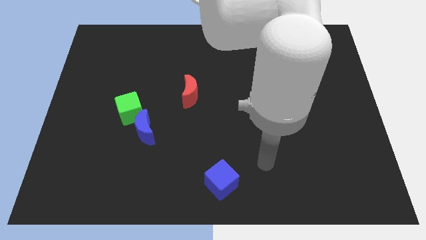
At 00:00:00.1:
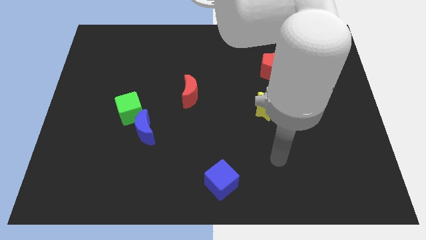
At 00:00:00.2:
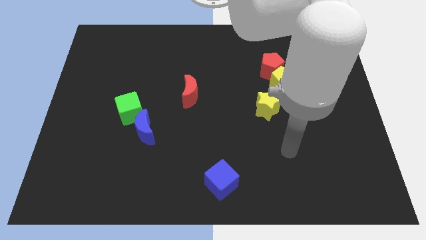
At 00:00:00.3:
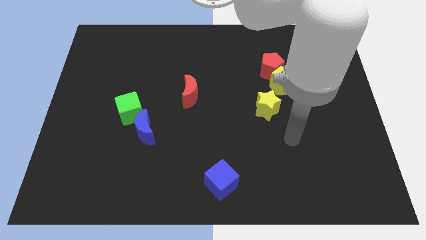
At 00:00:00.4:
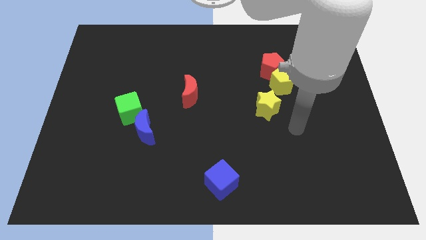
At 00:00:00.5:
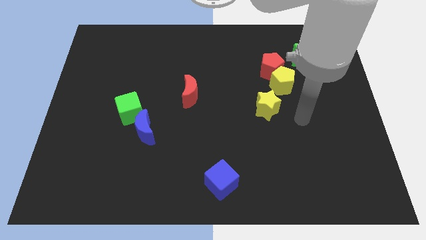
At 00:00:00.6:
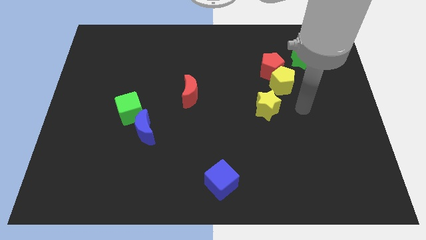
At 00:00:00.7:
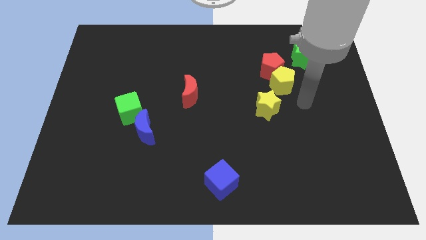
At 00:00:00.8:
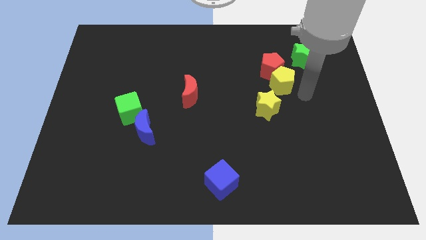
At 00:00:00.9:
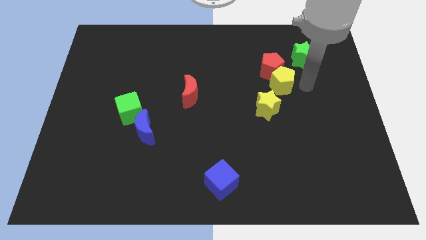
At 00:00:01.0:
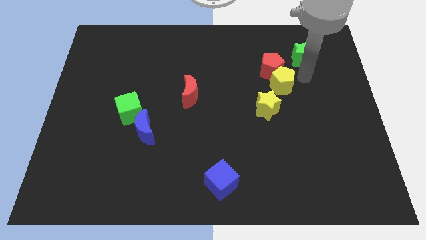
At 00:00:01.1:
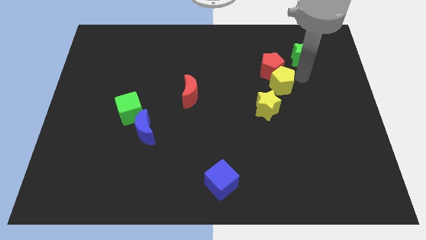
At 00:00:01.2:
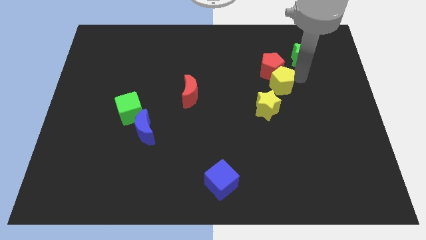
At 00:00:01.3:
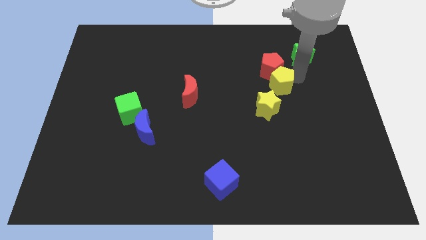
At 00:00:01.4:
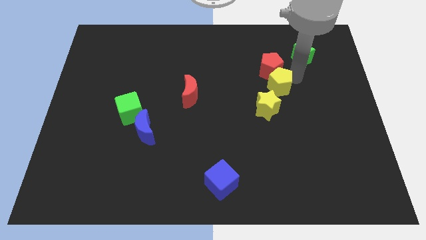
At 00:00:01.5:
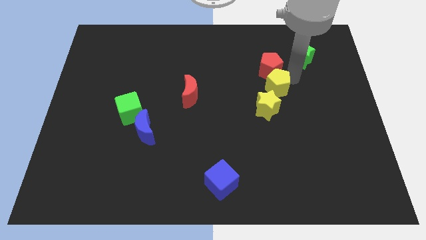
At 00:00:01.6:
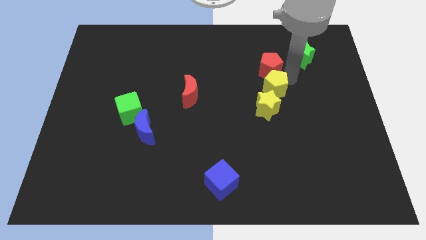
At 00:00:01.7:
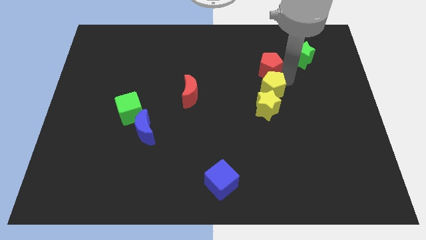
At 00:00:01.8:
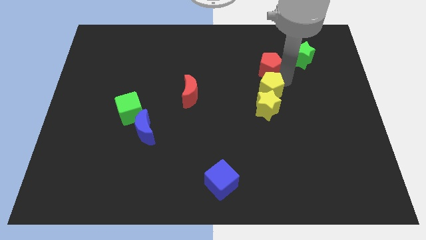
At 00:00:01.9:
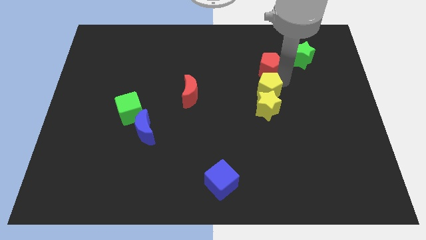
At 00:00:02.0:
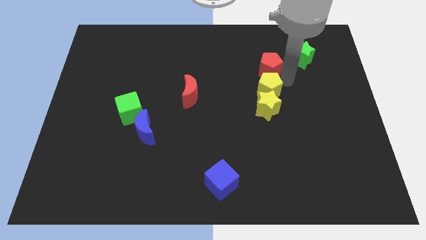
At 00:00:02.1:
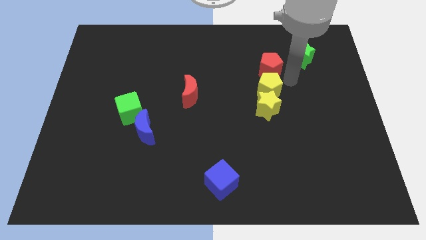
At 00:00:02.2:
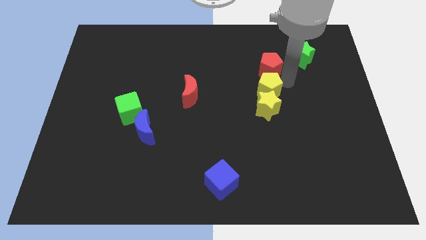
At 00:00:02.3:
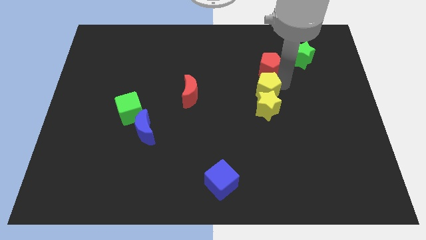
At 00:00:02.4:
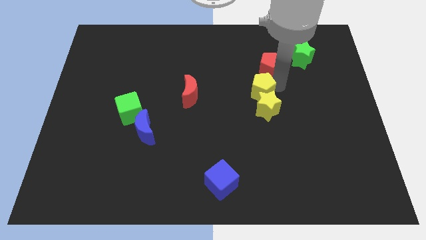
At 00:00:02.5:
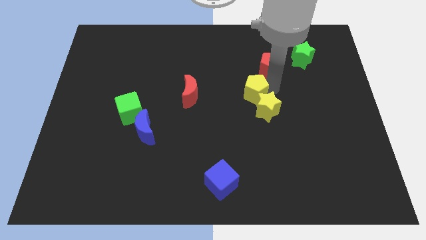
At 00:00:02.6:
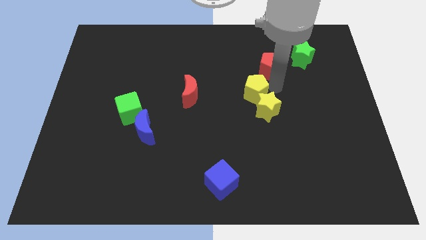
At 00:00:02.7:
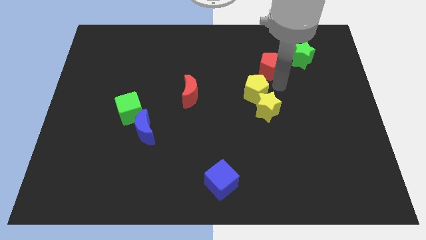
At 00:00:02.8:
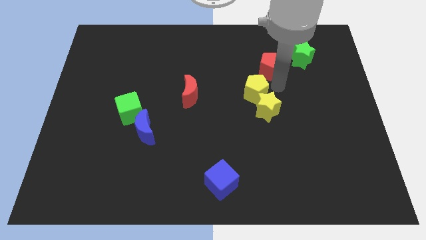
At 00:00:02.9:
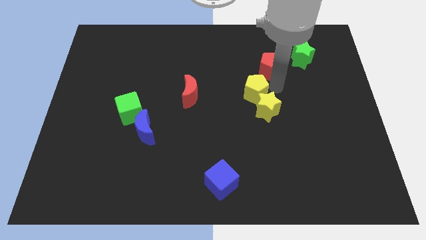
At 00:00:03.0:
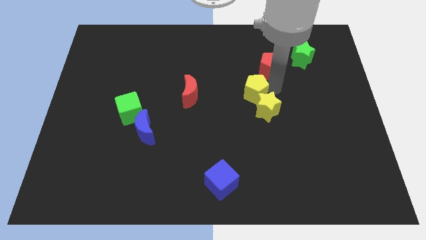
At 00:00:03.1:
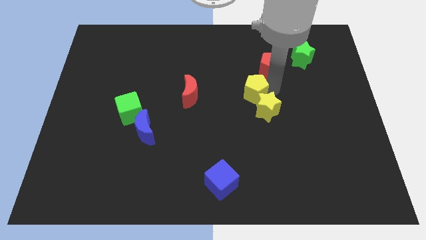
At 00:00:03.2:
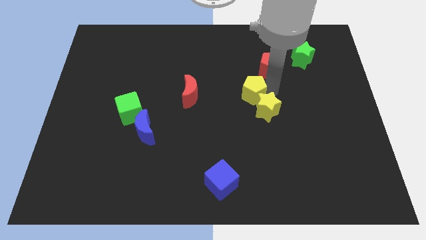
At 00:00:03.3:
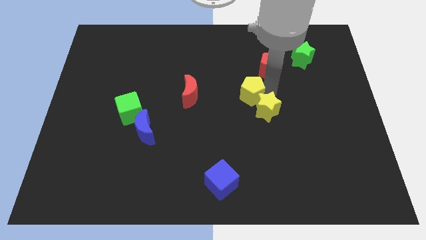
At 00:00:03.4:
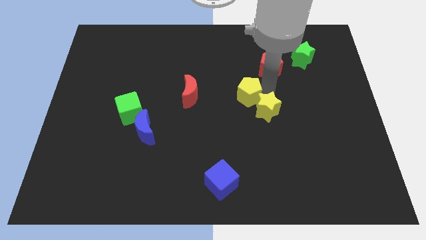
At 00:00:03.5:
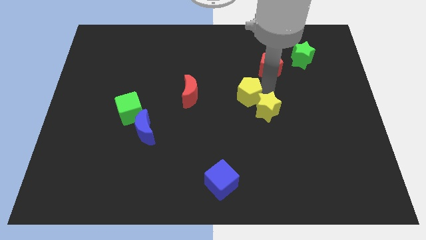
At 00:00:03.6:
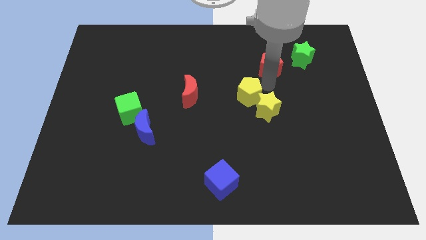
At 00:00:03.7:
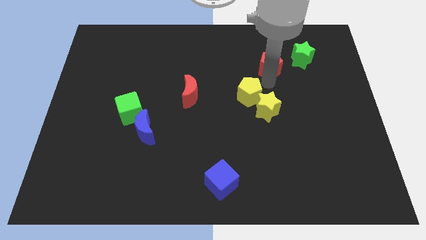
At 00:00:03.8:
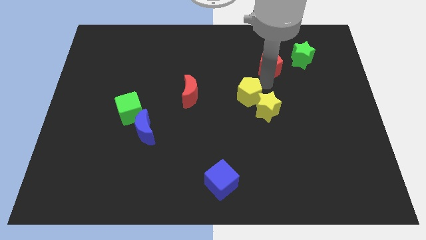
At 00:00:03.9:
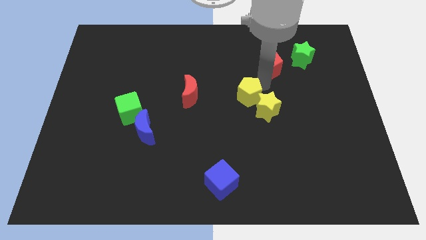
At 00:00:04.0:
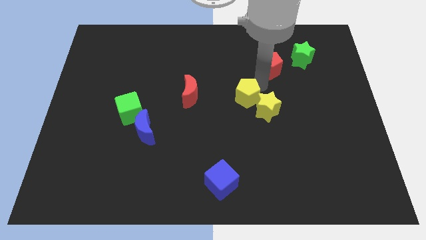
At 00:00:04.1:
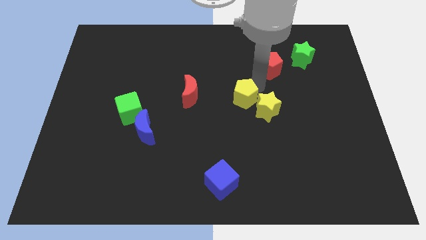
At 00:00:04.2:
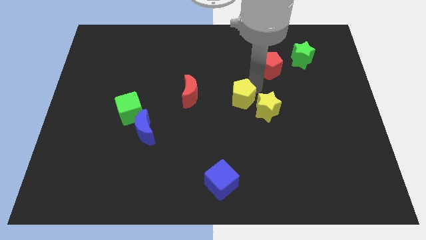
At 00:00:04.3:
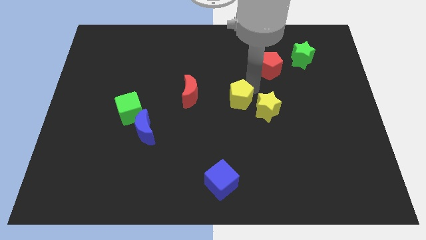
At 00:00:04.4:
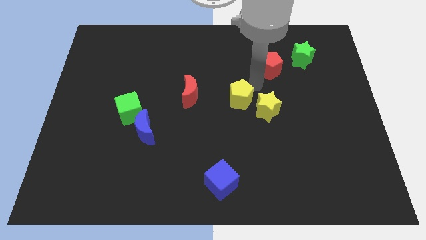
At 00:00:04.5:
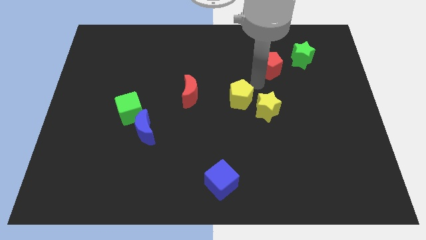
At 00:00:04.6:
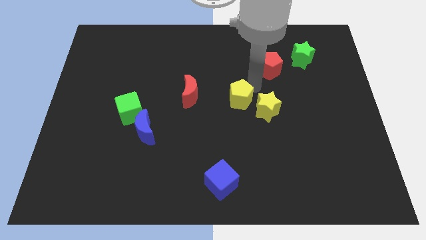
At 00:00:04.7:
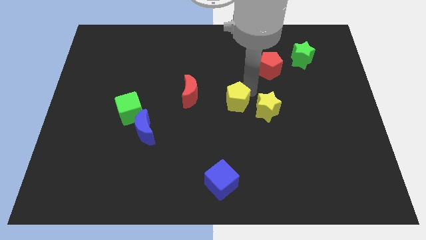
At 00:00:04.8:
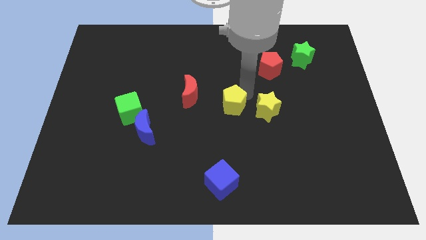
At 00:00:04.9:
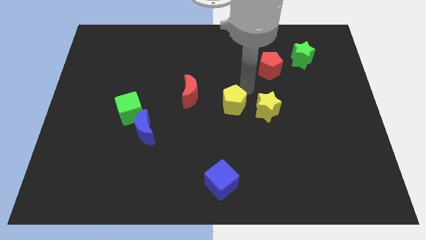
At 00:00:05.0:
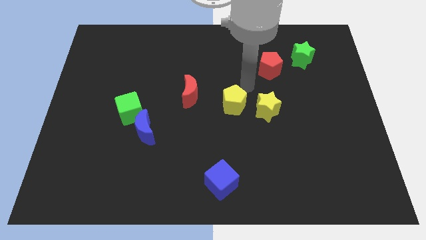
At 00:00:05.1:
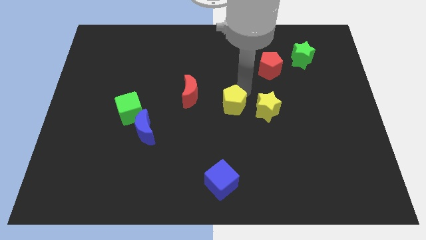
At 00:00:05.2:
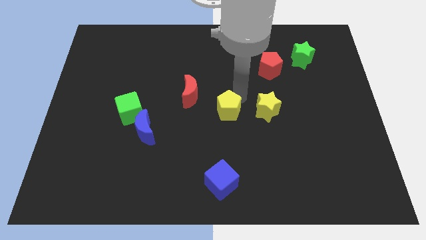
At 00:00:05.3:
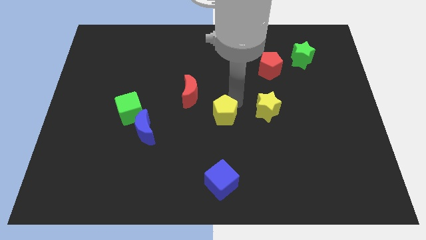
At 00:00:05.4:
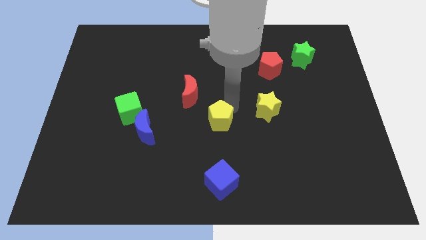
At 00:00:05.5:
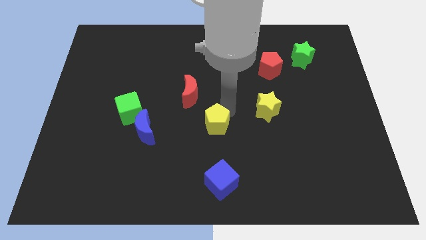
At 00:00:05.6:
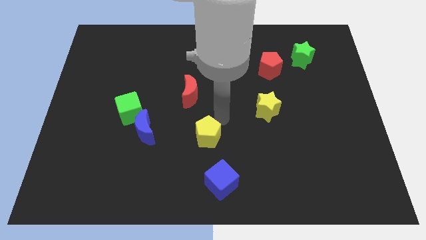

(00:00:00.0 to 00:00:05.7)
push the yellow pentagon downwards and left

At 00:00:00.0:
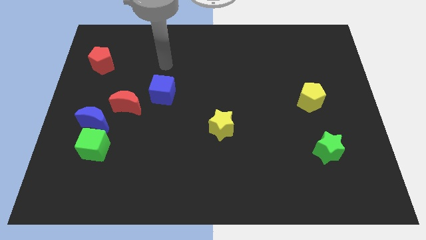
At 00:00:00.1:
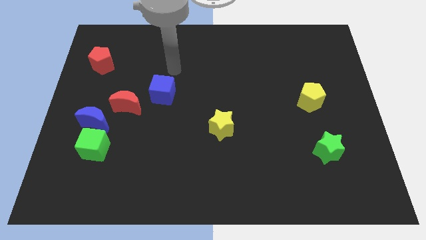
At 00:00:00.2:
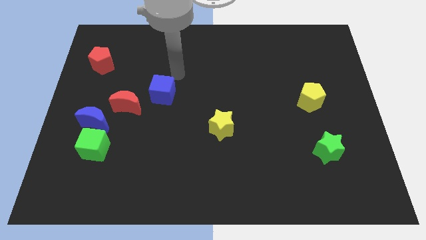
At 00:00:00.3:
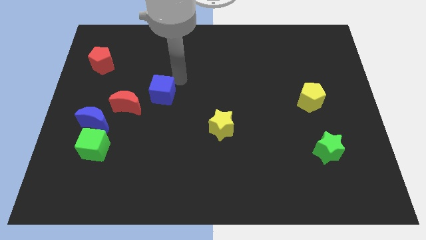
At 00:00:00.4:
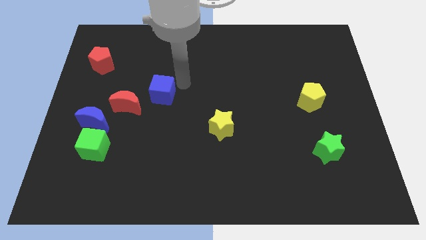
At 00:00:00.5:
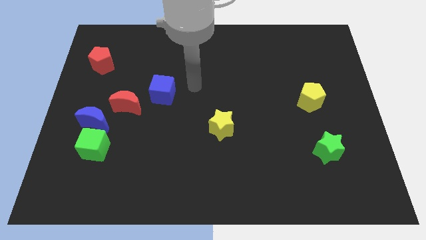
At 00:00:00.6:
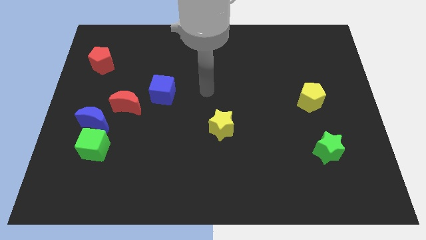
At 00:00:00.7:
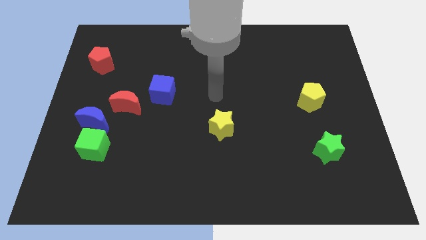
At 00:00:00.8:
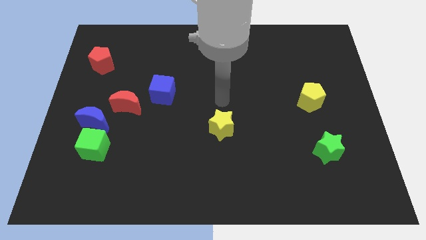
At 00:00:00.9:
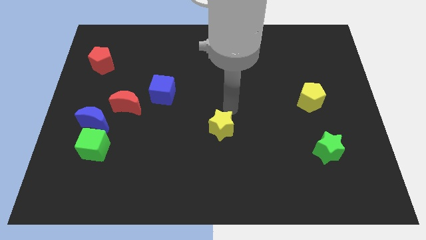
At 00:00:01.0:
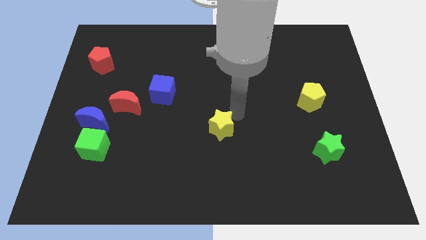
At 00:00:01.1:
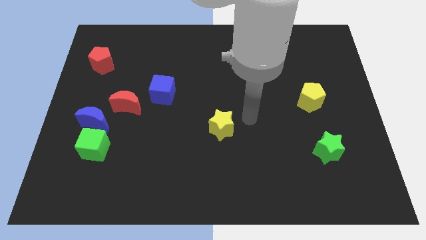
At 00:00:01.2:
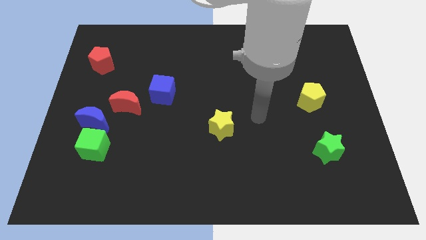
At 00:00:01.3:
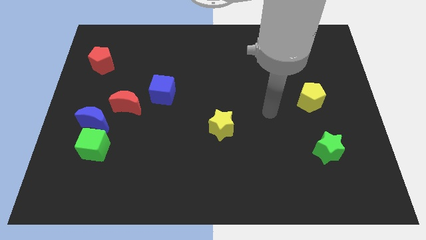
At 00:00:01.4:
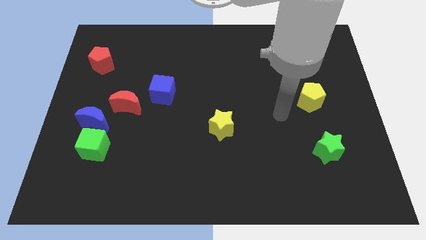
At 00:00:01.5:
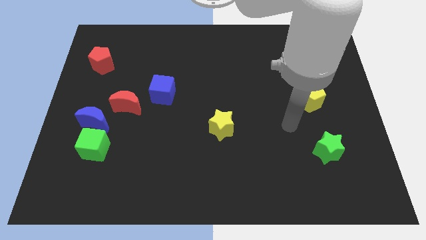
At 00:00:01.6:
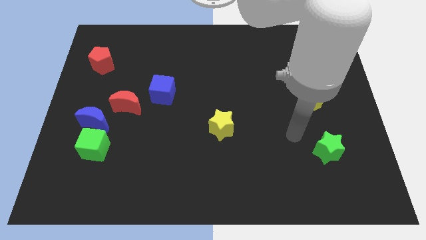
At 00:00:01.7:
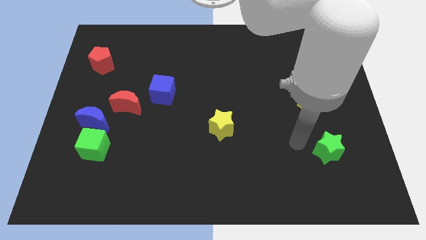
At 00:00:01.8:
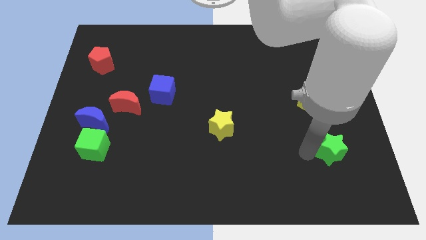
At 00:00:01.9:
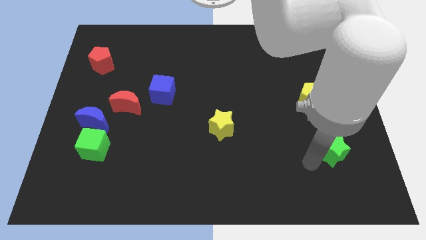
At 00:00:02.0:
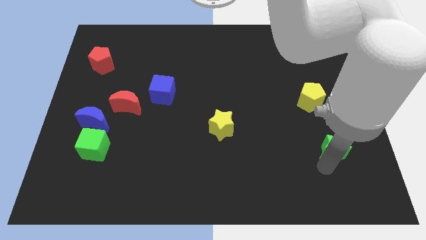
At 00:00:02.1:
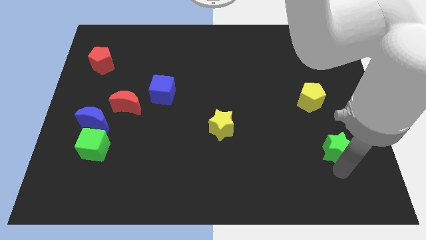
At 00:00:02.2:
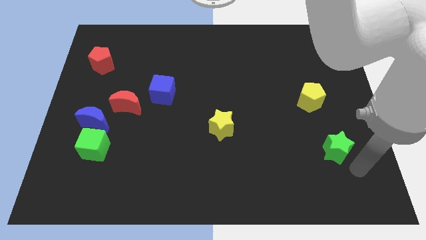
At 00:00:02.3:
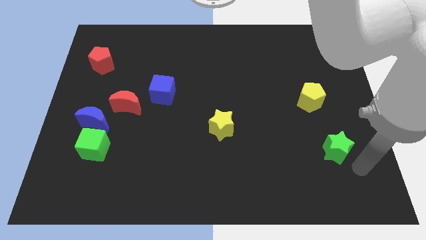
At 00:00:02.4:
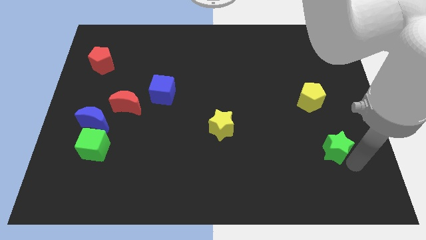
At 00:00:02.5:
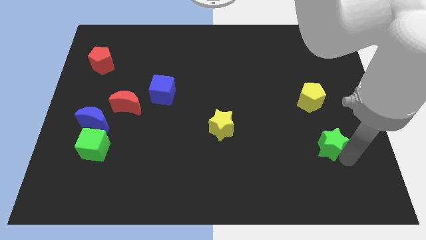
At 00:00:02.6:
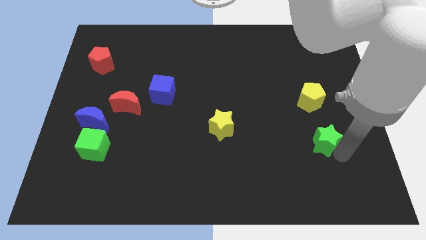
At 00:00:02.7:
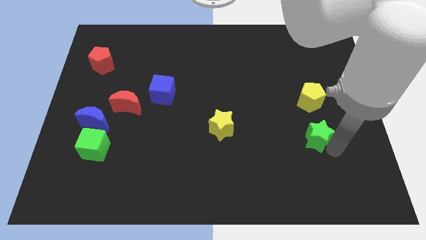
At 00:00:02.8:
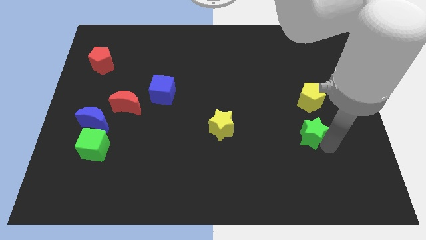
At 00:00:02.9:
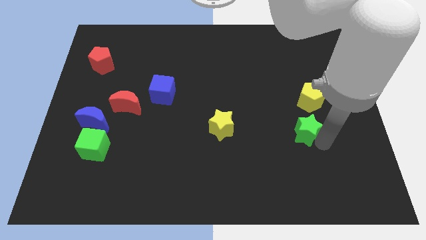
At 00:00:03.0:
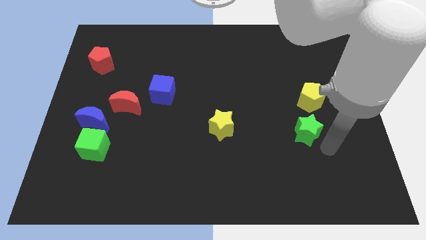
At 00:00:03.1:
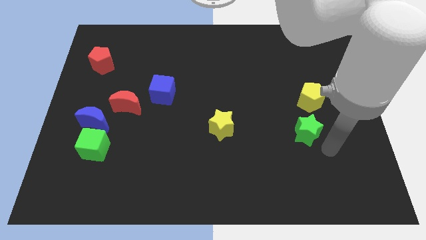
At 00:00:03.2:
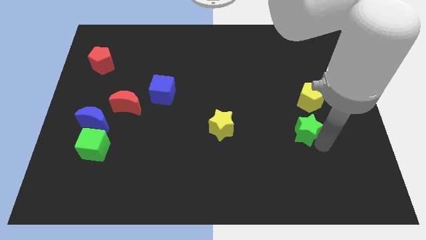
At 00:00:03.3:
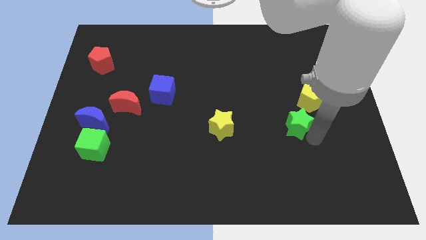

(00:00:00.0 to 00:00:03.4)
slightly slide the green star up and left diagonally
